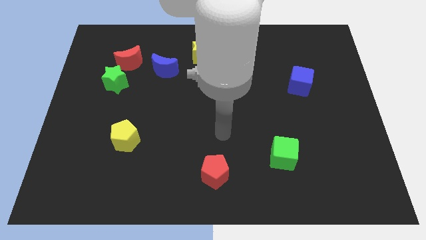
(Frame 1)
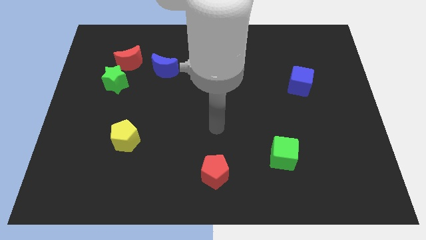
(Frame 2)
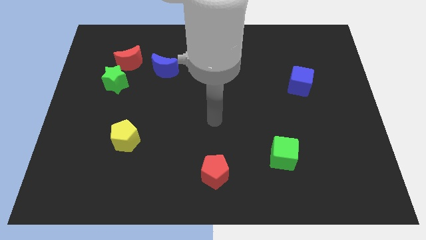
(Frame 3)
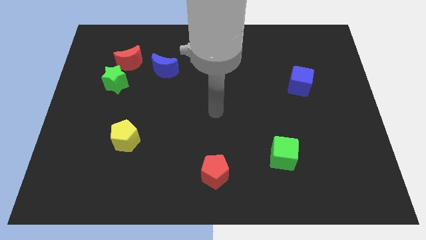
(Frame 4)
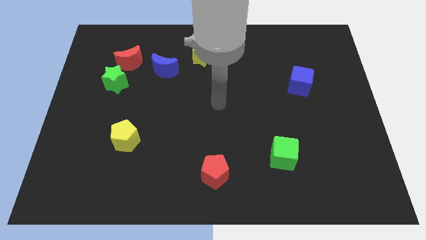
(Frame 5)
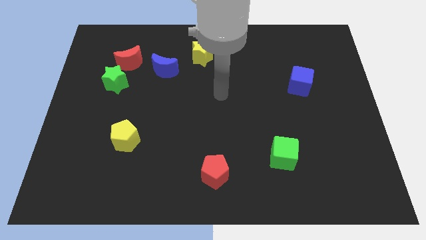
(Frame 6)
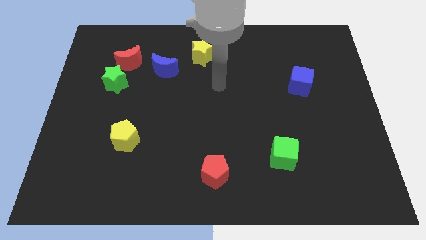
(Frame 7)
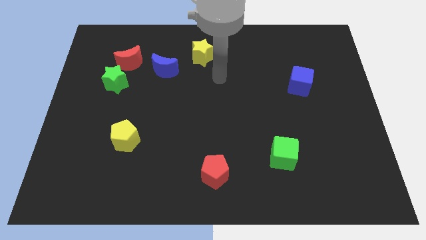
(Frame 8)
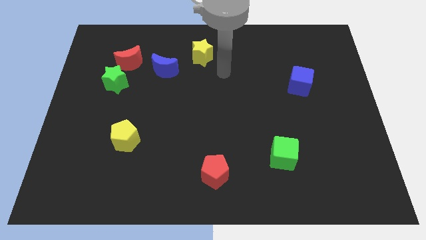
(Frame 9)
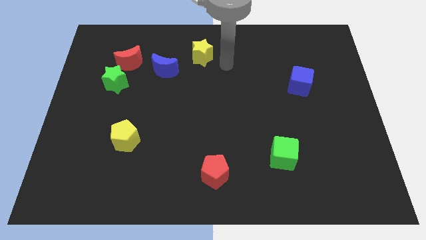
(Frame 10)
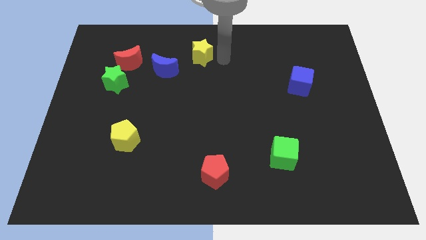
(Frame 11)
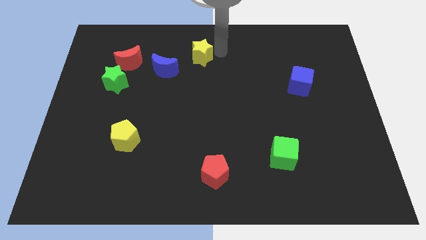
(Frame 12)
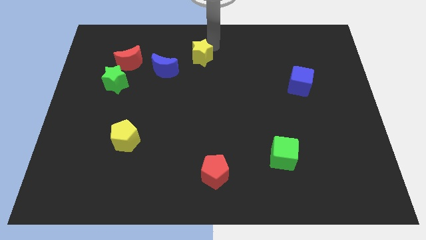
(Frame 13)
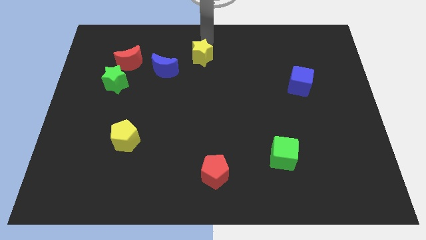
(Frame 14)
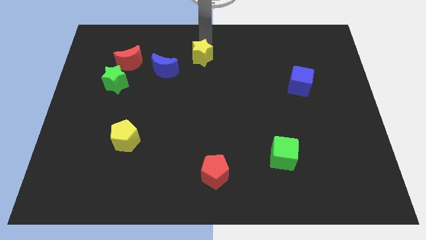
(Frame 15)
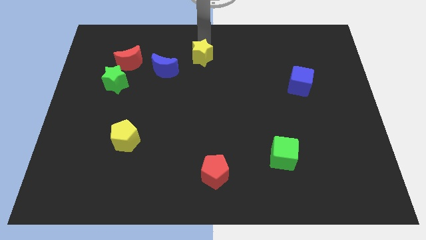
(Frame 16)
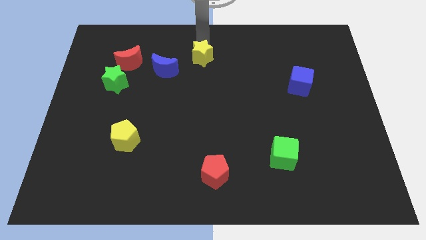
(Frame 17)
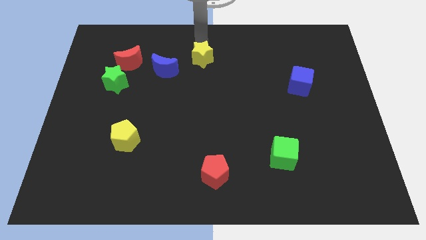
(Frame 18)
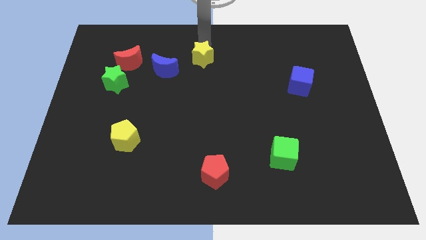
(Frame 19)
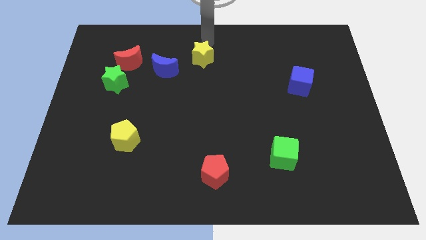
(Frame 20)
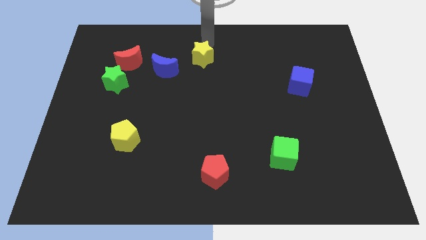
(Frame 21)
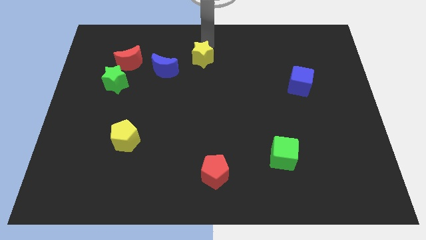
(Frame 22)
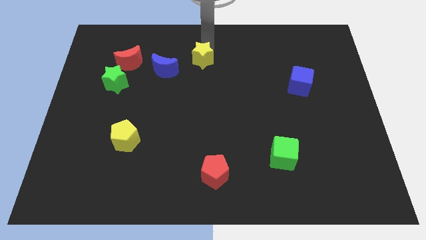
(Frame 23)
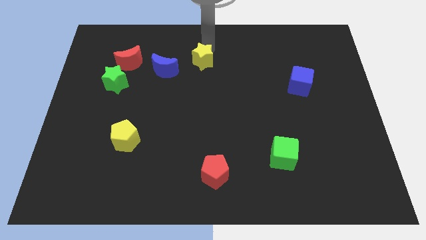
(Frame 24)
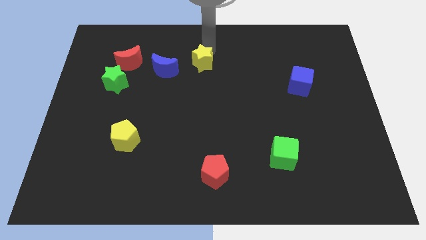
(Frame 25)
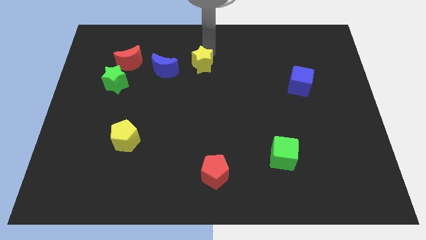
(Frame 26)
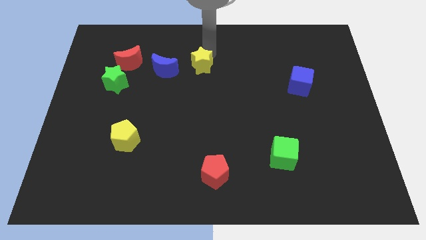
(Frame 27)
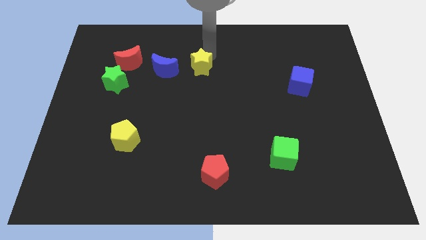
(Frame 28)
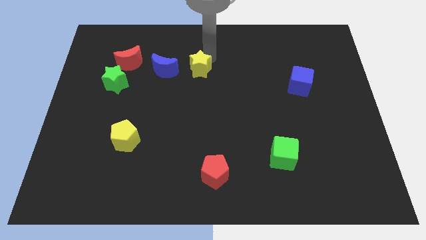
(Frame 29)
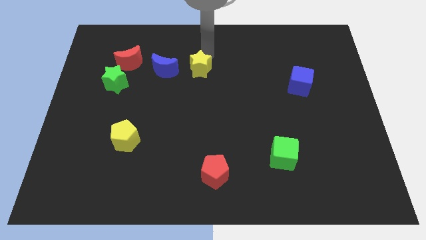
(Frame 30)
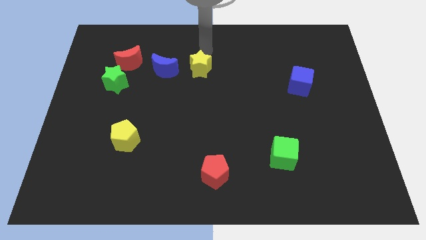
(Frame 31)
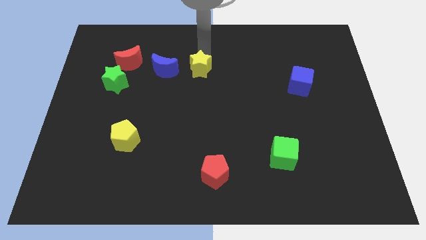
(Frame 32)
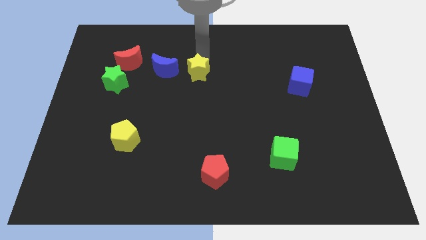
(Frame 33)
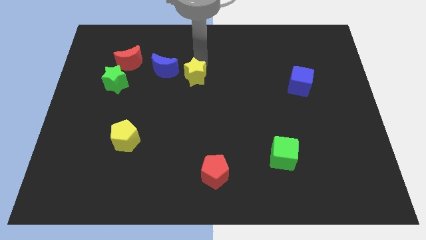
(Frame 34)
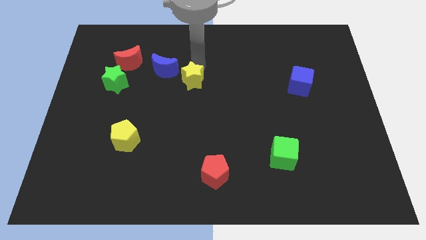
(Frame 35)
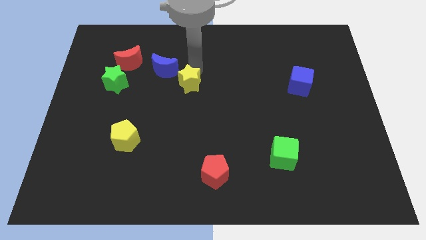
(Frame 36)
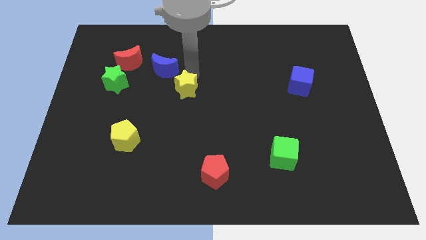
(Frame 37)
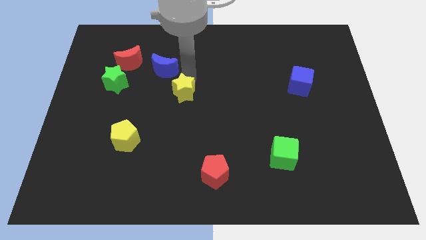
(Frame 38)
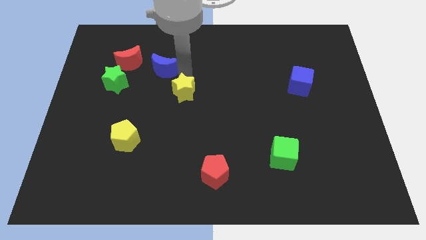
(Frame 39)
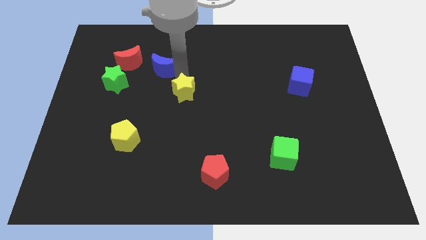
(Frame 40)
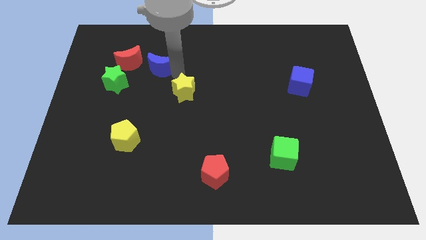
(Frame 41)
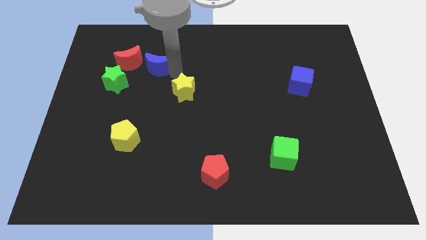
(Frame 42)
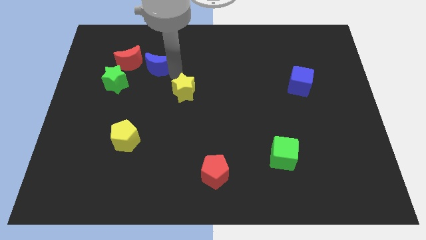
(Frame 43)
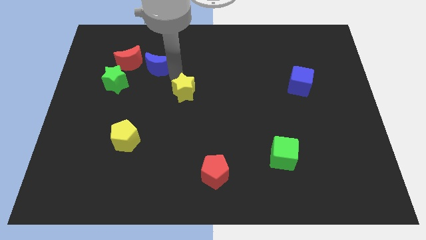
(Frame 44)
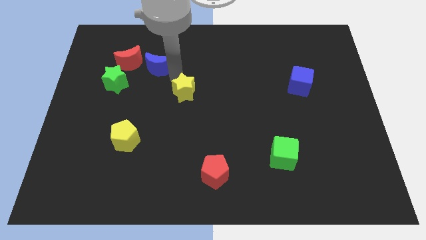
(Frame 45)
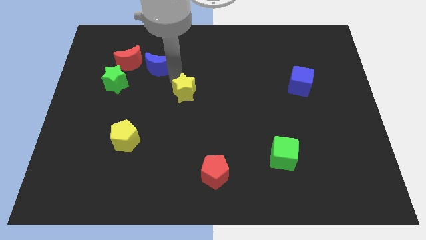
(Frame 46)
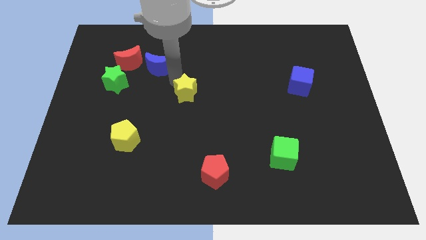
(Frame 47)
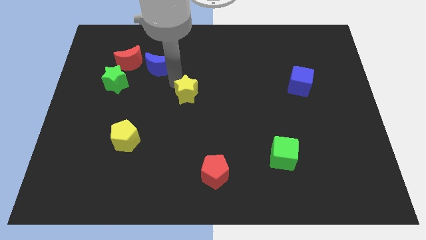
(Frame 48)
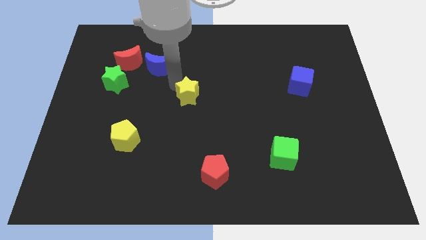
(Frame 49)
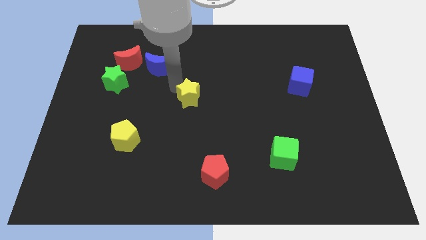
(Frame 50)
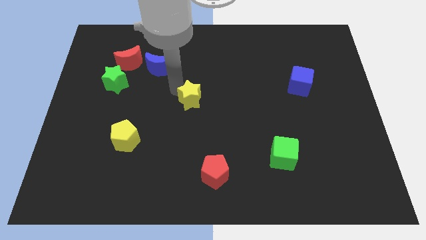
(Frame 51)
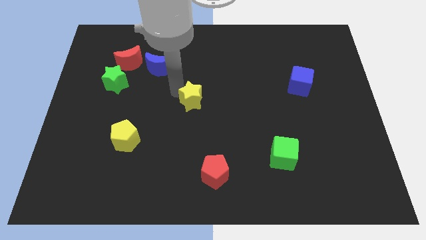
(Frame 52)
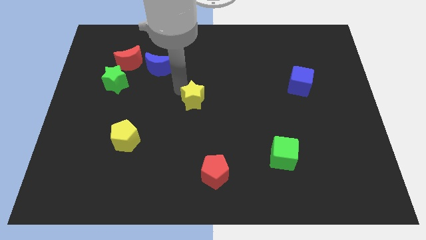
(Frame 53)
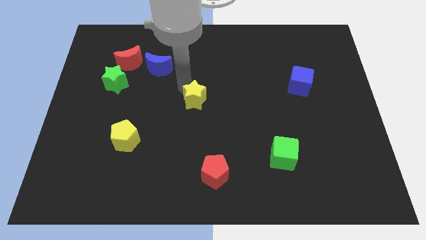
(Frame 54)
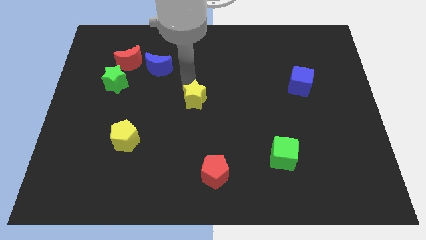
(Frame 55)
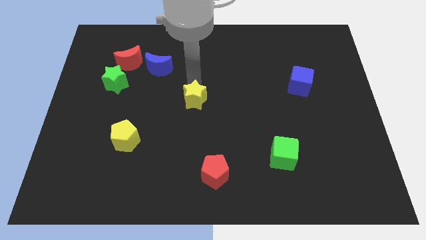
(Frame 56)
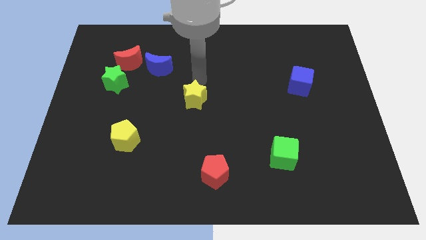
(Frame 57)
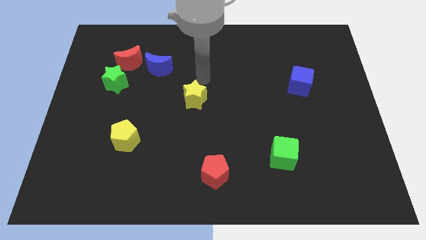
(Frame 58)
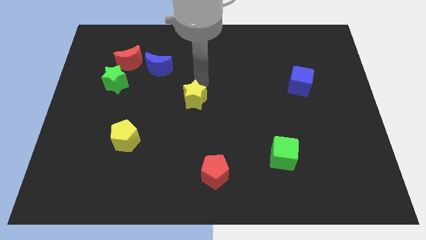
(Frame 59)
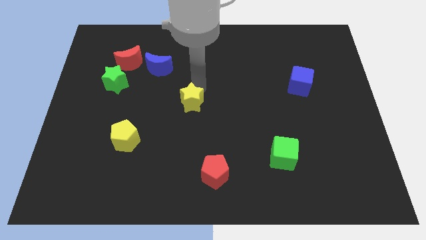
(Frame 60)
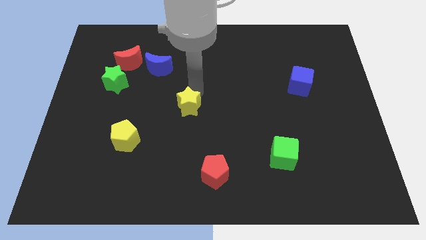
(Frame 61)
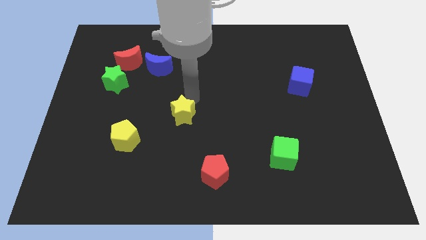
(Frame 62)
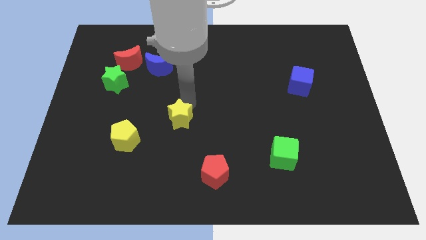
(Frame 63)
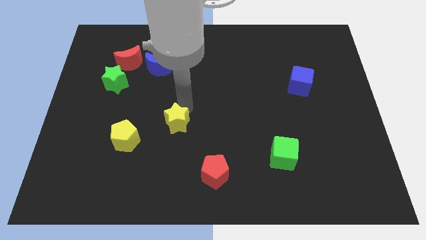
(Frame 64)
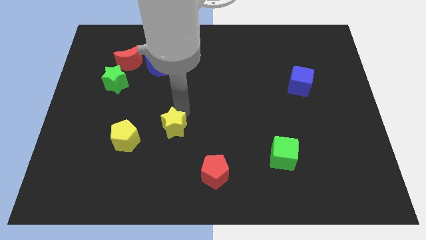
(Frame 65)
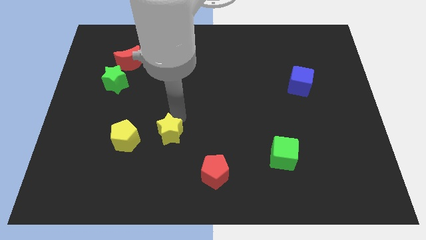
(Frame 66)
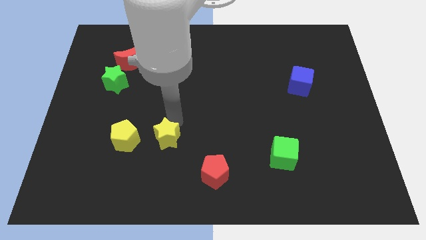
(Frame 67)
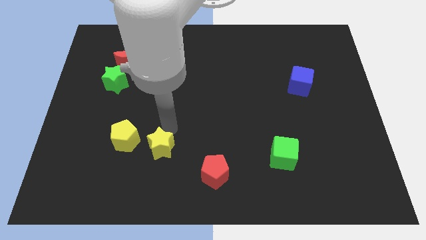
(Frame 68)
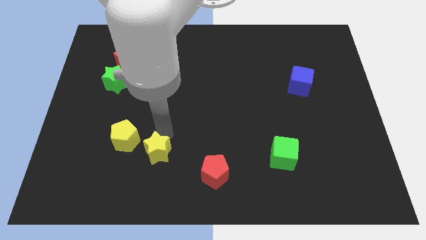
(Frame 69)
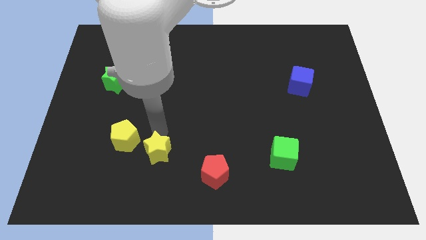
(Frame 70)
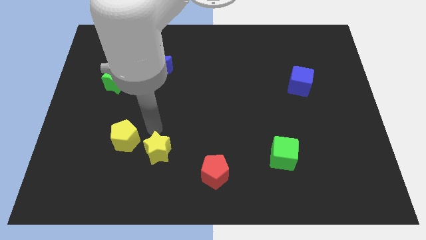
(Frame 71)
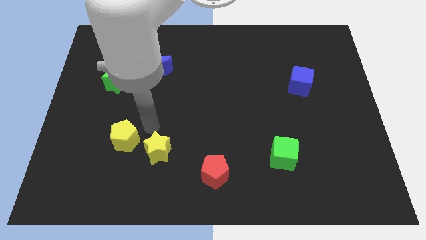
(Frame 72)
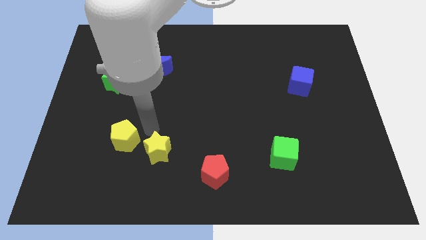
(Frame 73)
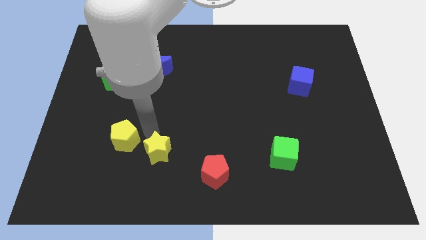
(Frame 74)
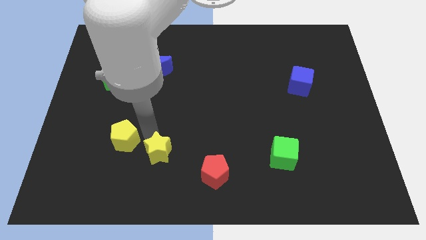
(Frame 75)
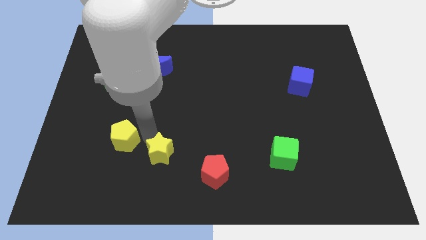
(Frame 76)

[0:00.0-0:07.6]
put the yellow star just left of the red pentagon
